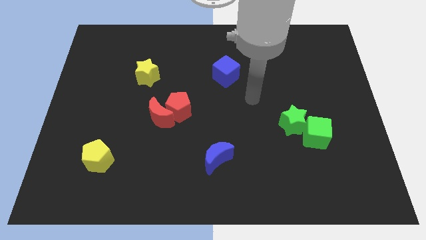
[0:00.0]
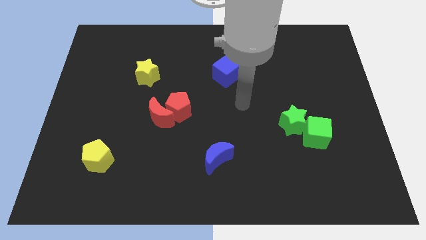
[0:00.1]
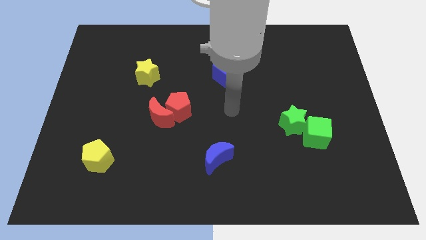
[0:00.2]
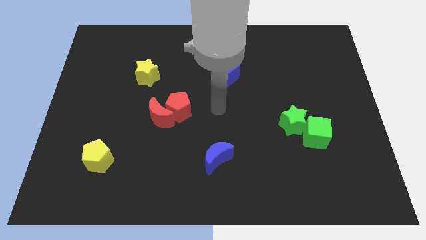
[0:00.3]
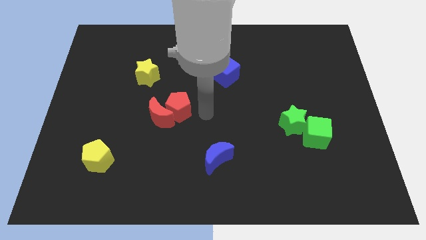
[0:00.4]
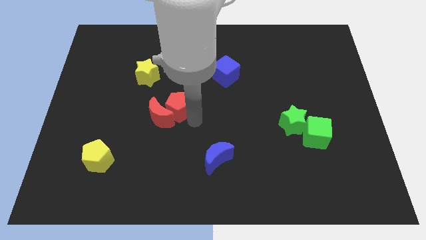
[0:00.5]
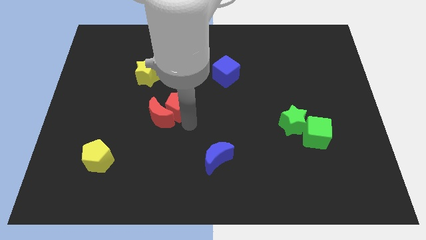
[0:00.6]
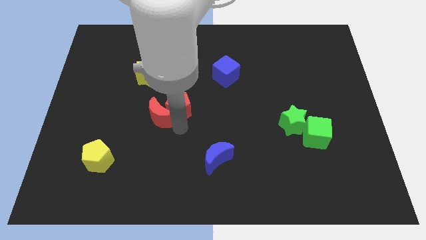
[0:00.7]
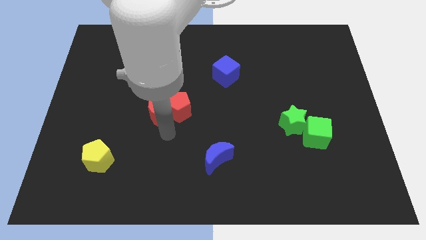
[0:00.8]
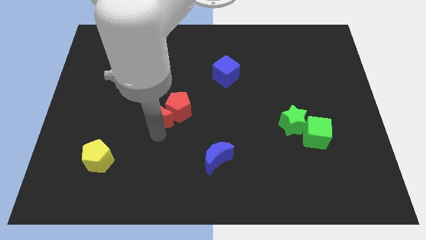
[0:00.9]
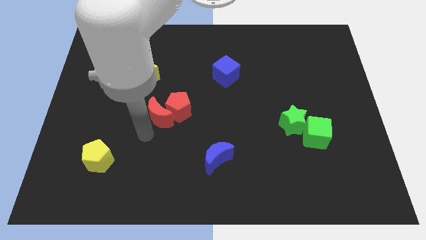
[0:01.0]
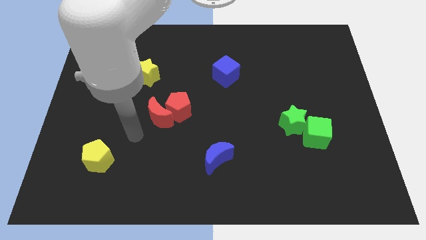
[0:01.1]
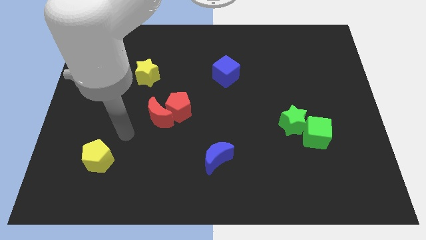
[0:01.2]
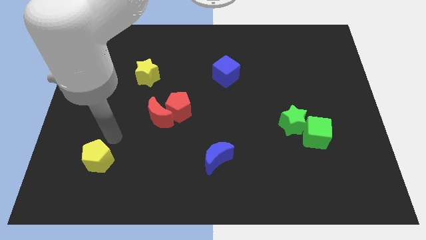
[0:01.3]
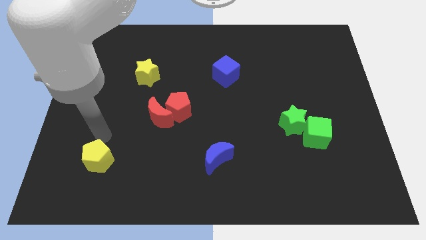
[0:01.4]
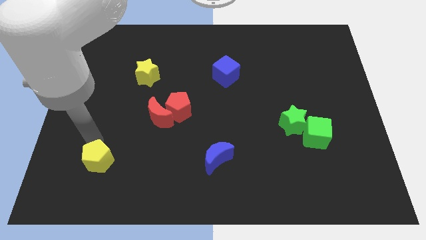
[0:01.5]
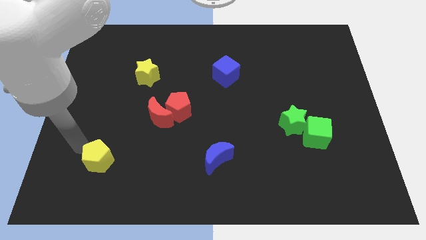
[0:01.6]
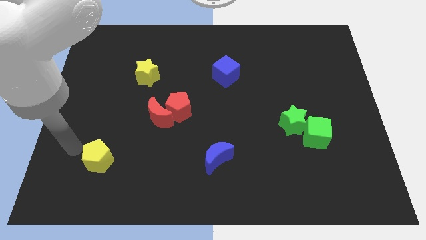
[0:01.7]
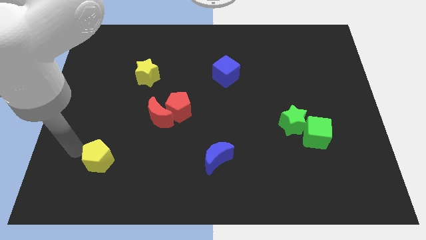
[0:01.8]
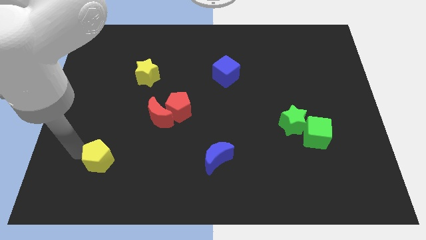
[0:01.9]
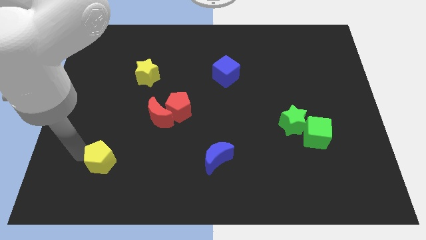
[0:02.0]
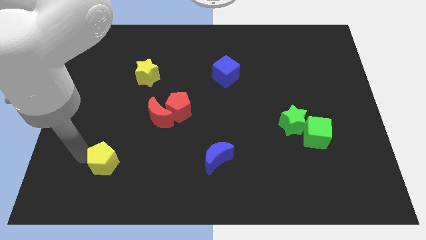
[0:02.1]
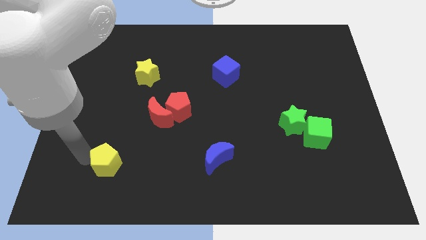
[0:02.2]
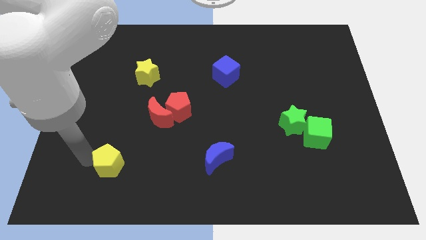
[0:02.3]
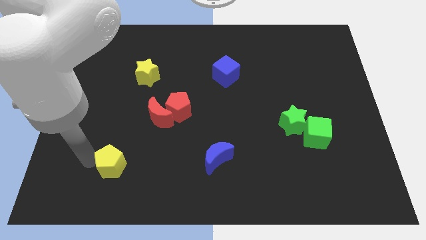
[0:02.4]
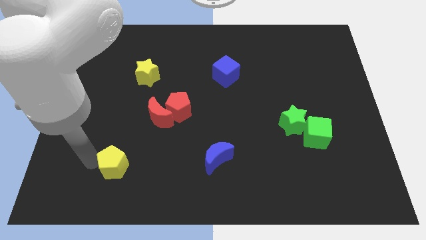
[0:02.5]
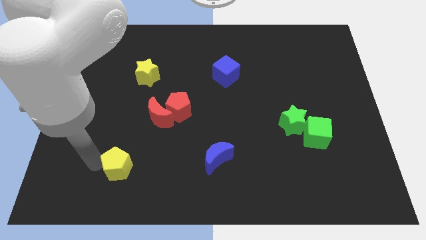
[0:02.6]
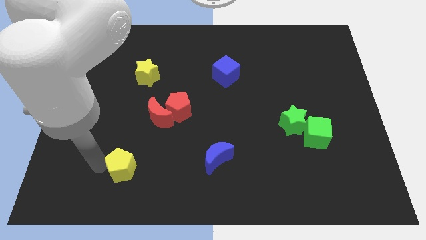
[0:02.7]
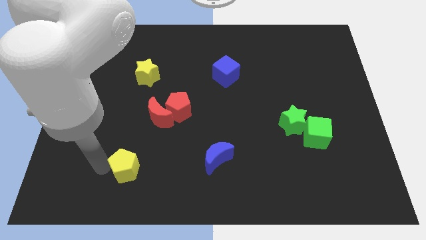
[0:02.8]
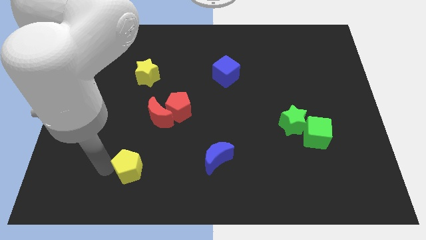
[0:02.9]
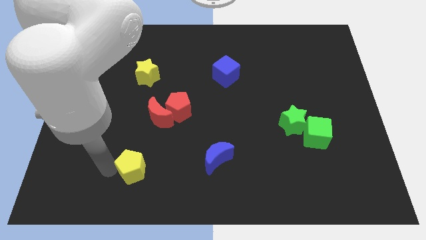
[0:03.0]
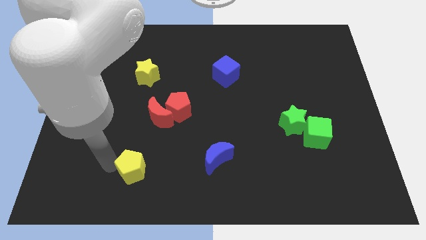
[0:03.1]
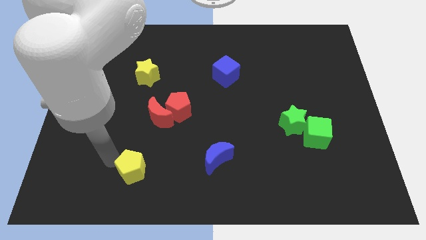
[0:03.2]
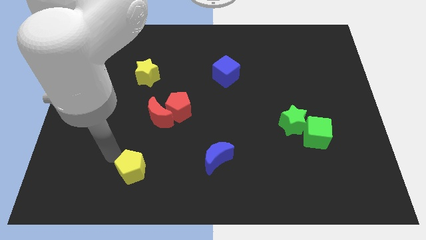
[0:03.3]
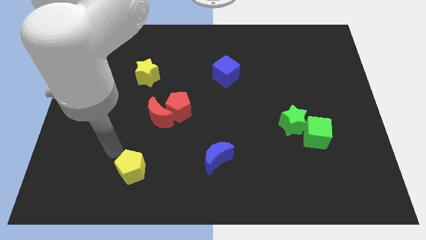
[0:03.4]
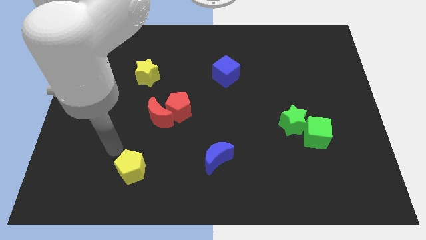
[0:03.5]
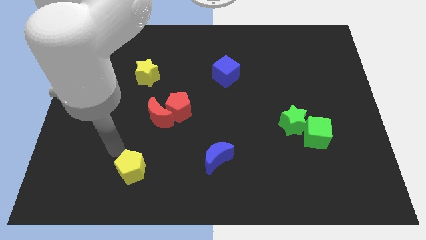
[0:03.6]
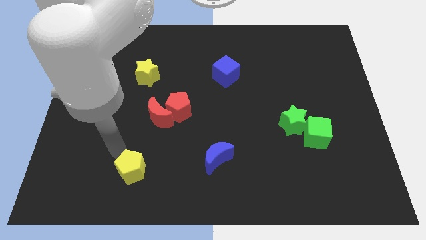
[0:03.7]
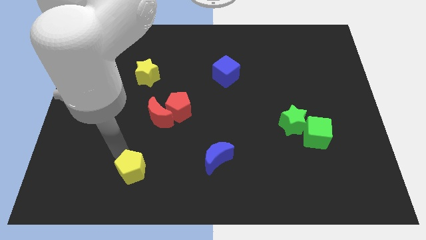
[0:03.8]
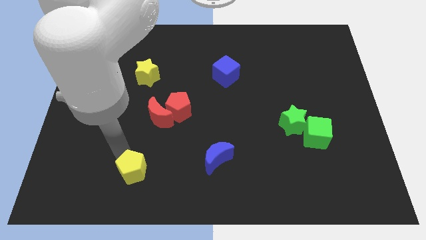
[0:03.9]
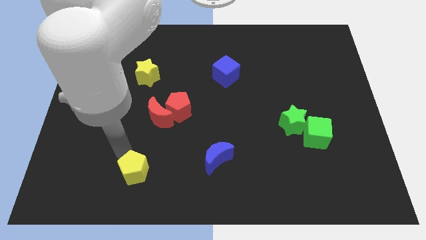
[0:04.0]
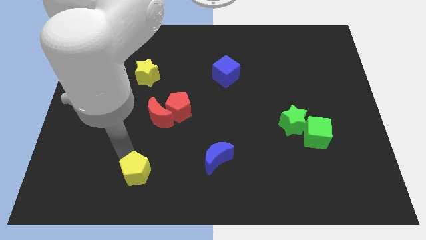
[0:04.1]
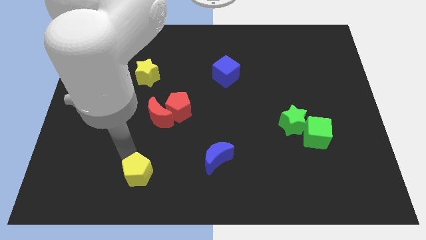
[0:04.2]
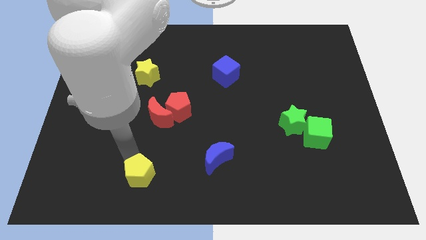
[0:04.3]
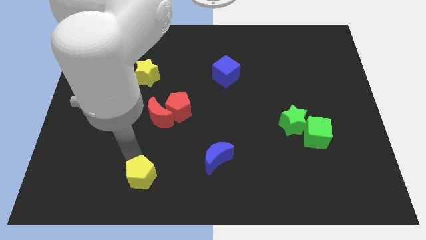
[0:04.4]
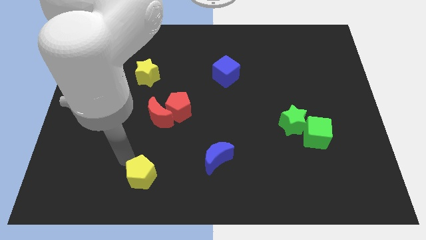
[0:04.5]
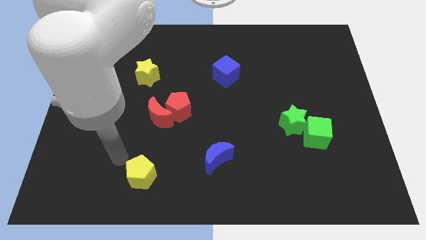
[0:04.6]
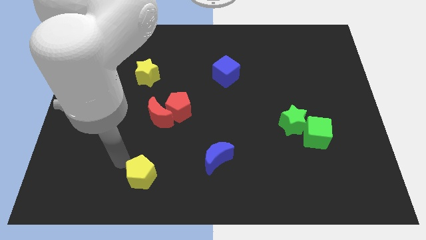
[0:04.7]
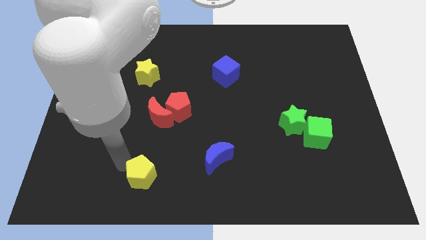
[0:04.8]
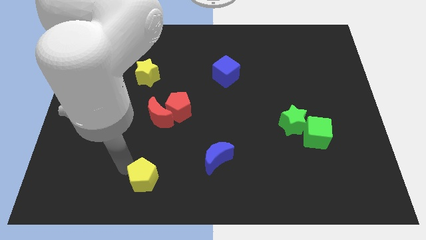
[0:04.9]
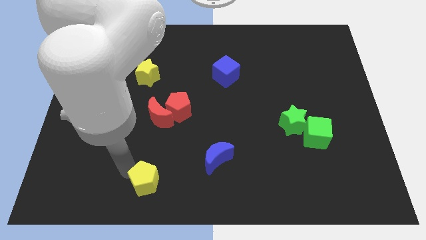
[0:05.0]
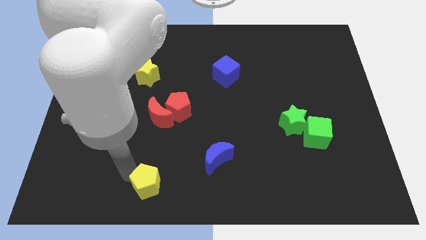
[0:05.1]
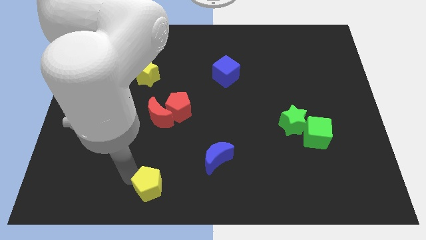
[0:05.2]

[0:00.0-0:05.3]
push the yellow pentagon to the bottom side

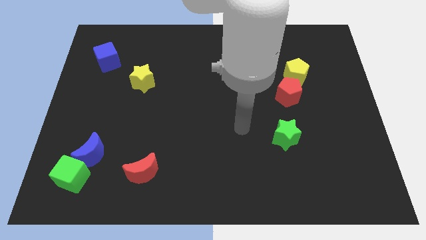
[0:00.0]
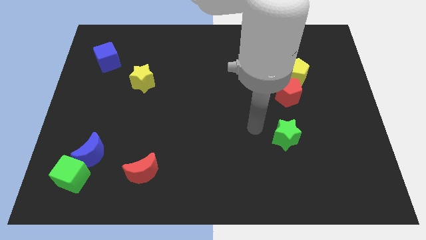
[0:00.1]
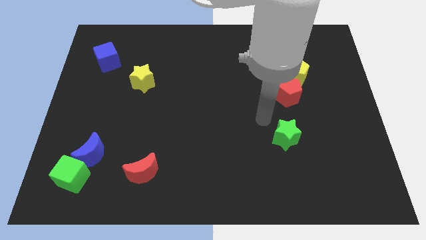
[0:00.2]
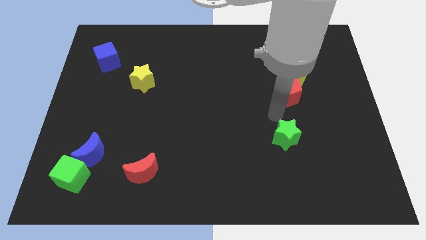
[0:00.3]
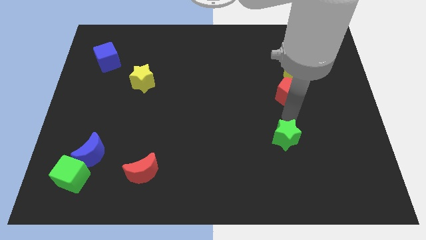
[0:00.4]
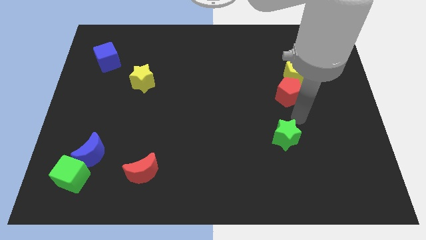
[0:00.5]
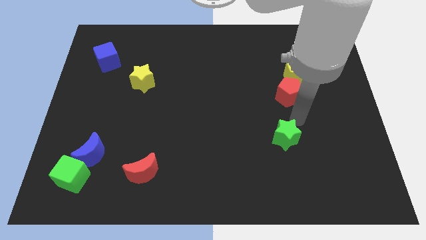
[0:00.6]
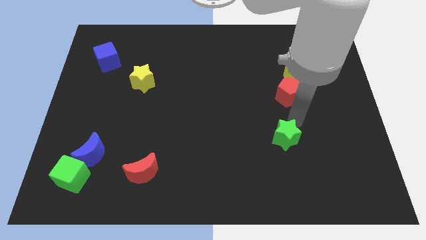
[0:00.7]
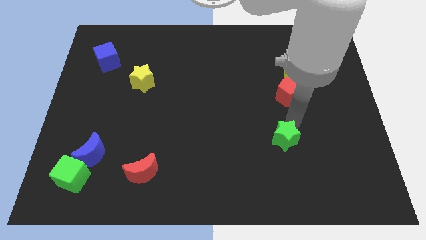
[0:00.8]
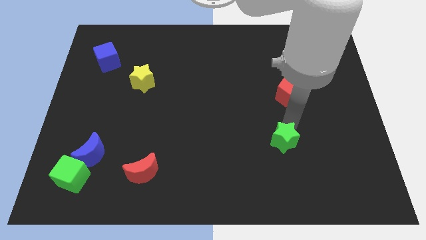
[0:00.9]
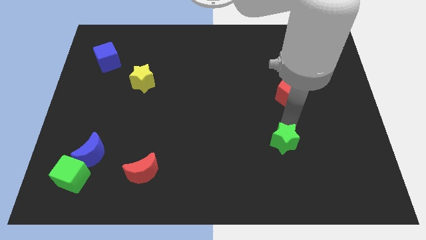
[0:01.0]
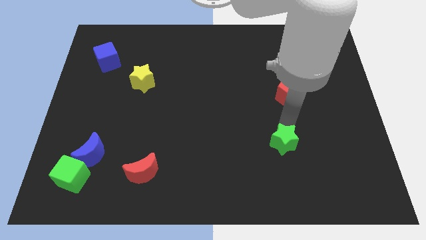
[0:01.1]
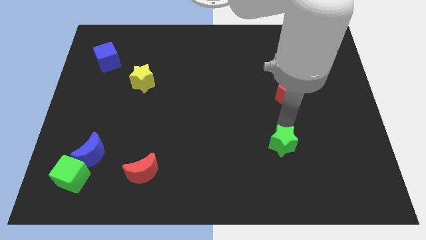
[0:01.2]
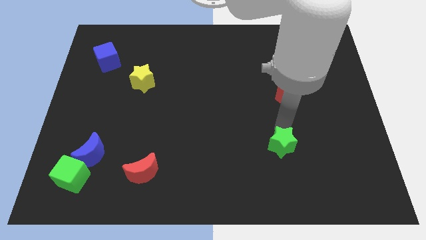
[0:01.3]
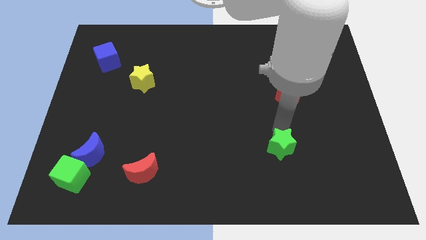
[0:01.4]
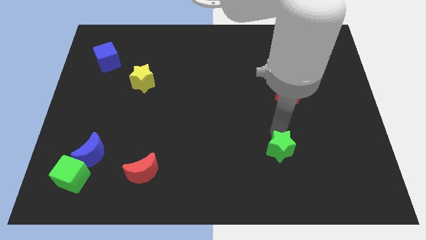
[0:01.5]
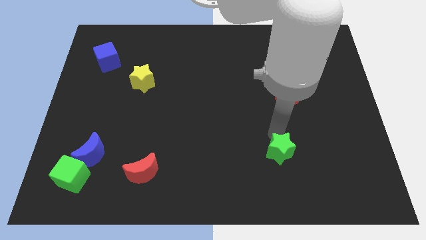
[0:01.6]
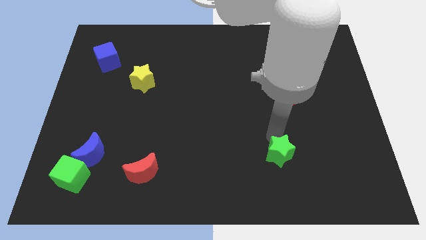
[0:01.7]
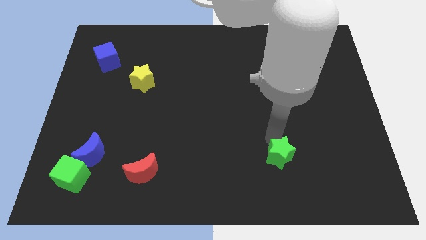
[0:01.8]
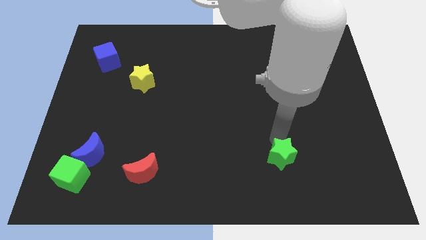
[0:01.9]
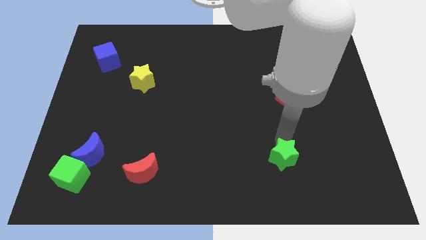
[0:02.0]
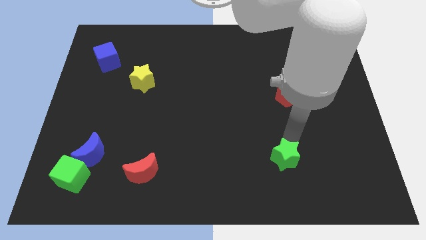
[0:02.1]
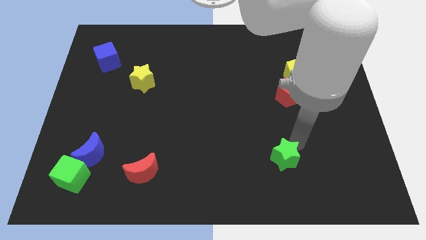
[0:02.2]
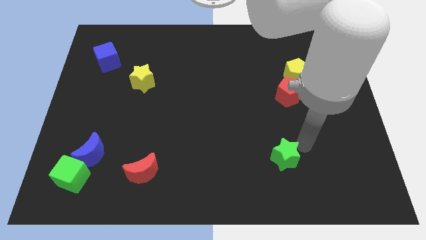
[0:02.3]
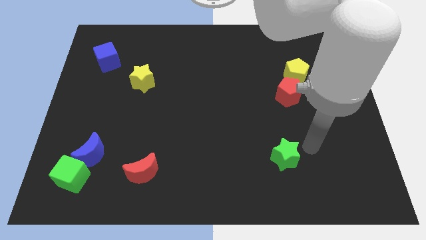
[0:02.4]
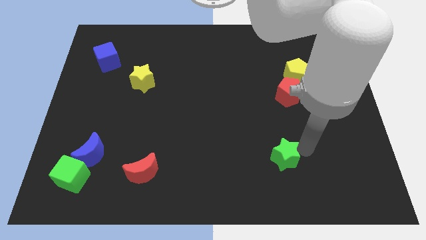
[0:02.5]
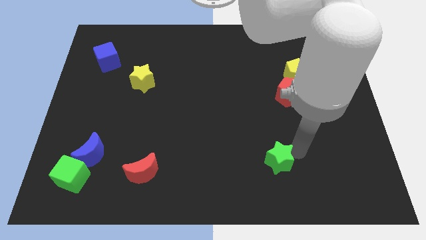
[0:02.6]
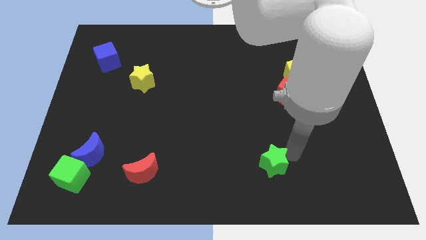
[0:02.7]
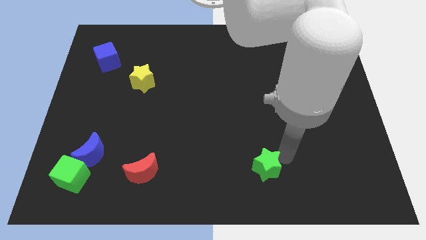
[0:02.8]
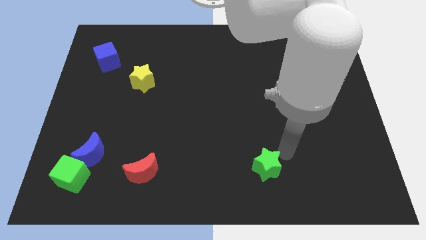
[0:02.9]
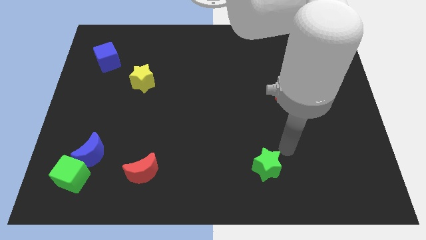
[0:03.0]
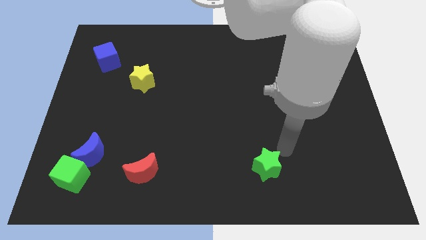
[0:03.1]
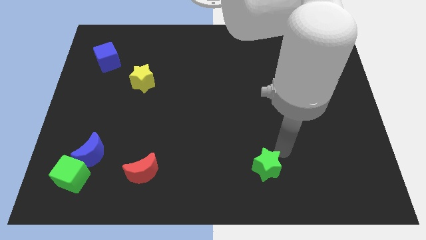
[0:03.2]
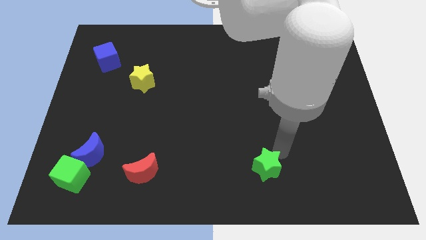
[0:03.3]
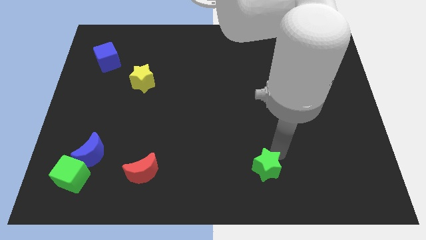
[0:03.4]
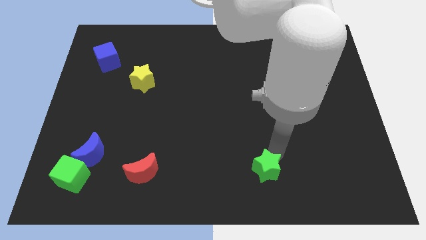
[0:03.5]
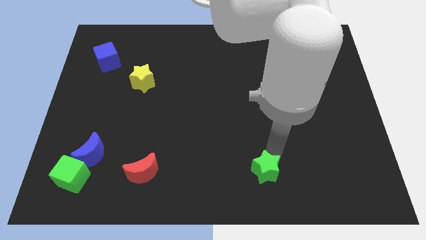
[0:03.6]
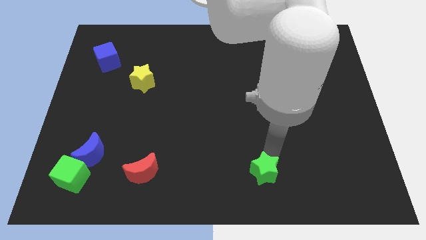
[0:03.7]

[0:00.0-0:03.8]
push the green star to the bottom side
